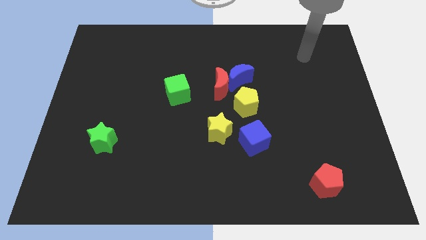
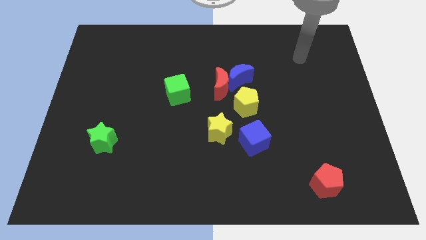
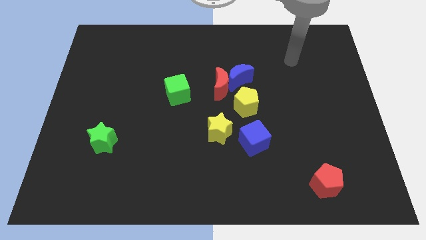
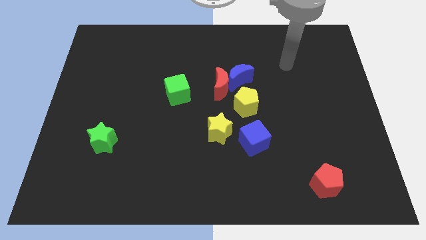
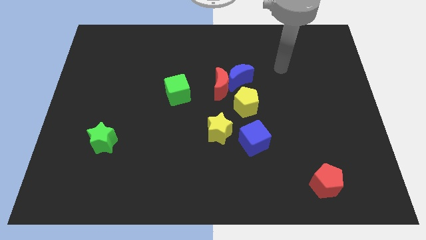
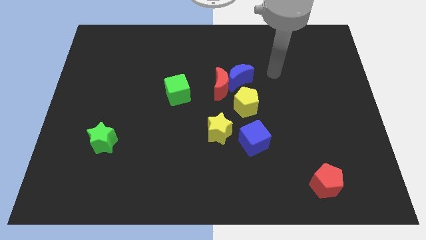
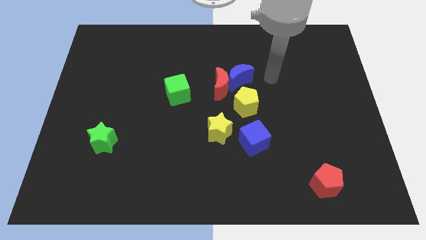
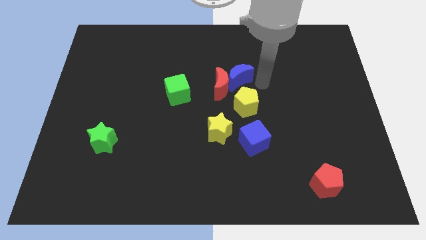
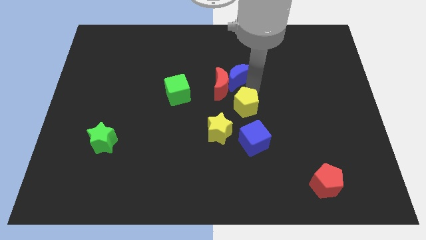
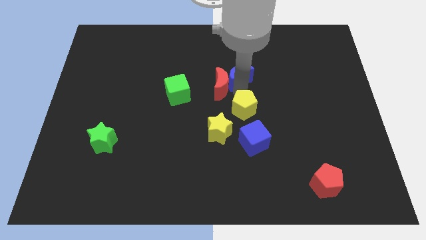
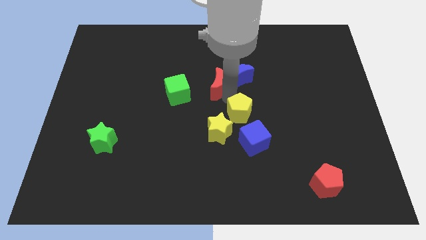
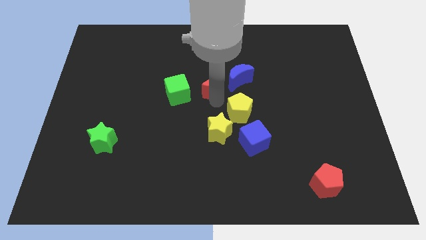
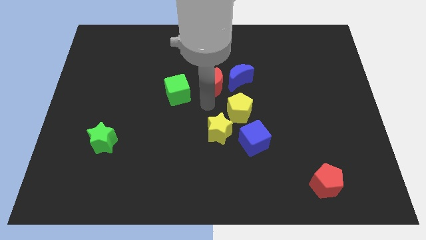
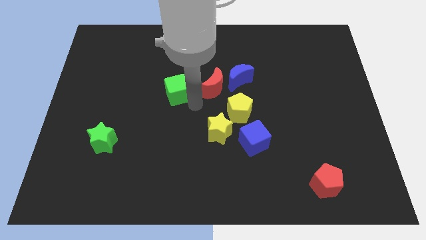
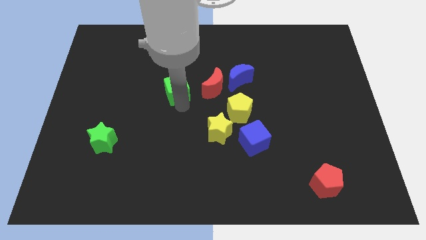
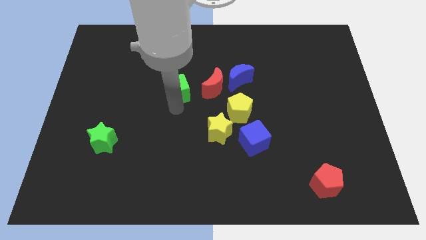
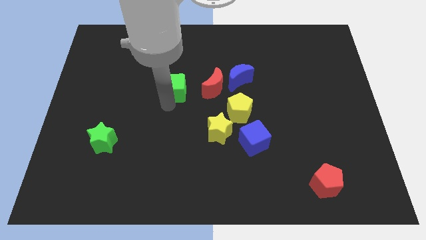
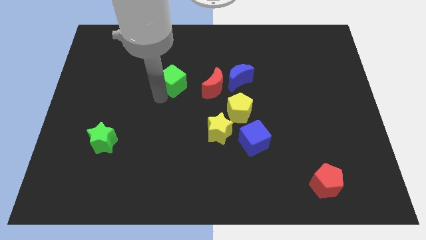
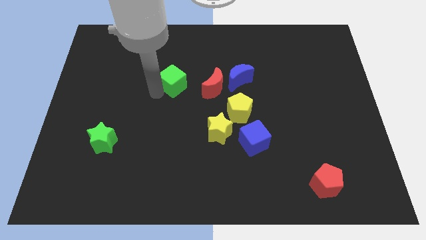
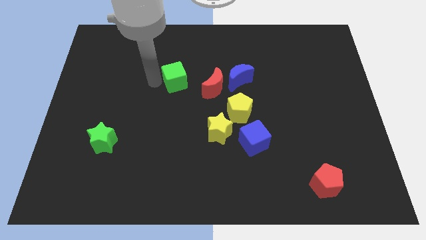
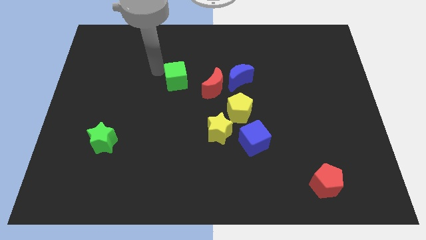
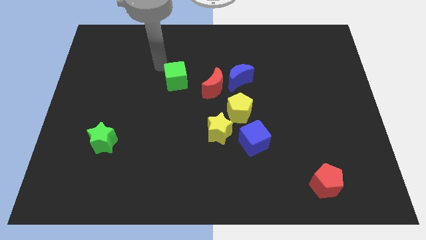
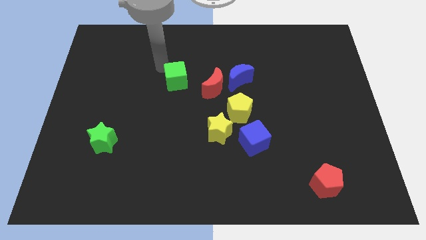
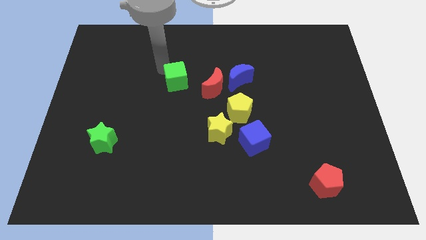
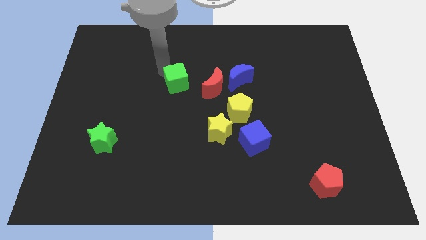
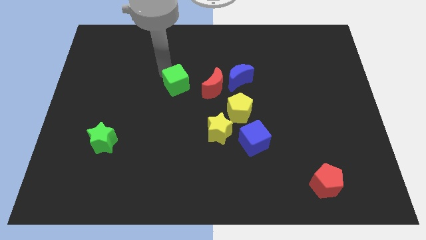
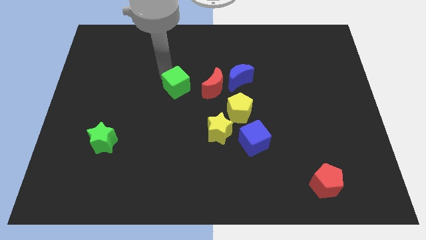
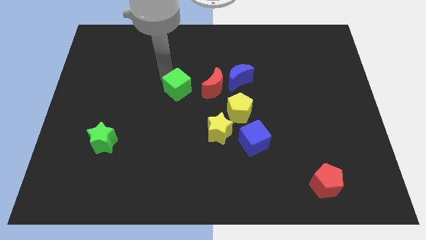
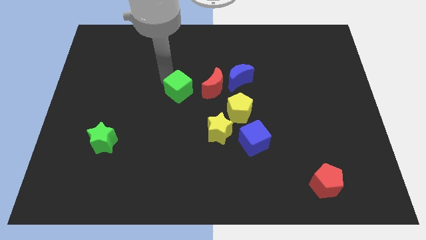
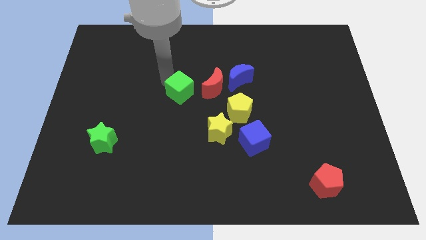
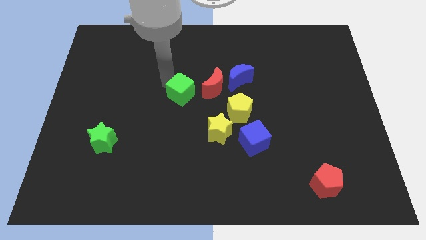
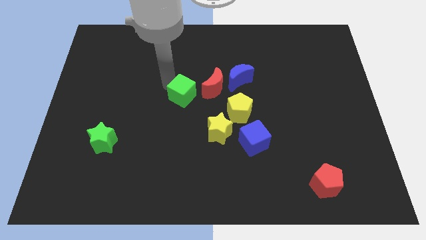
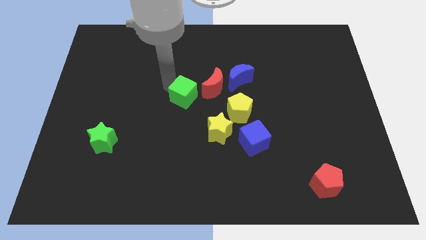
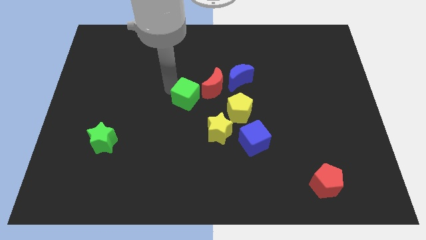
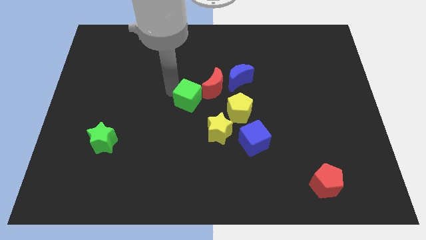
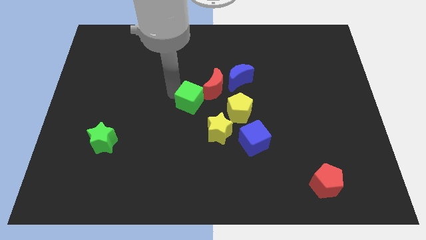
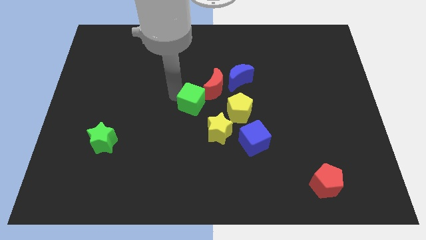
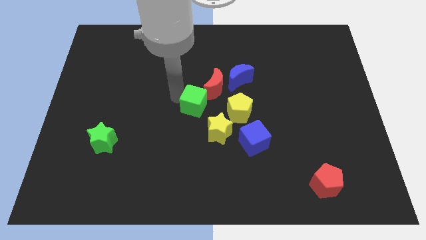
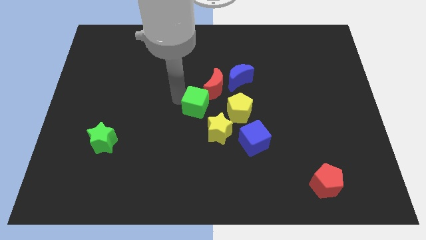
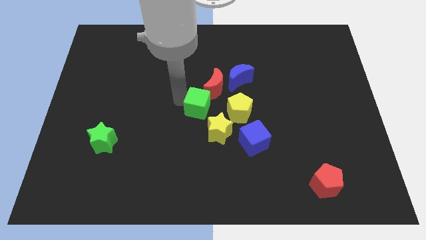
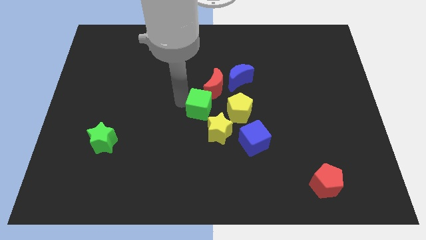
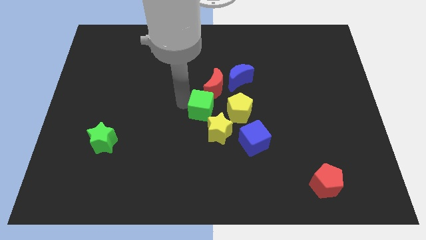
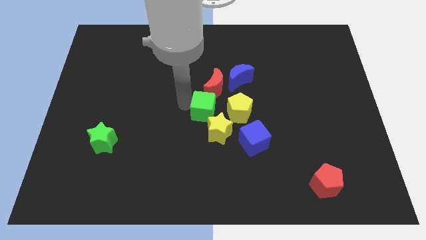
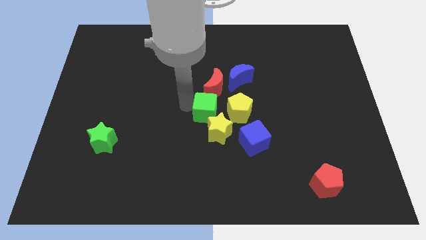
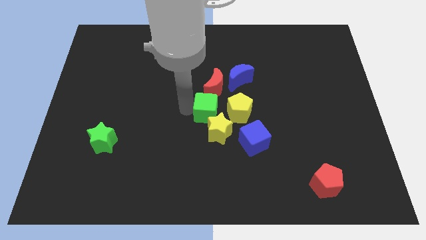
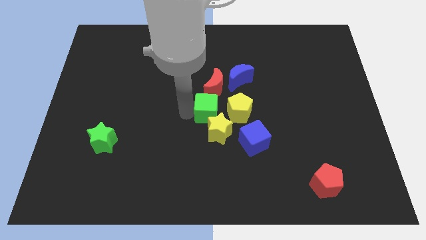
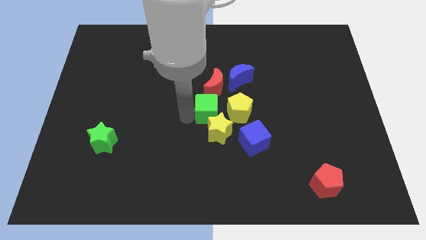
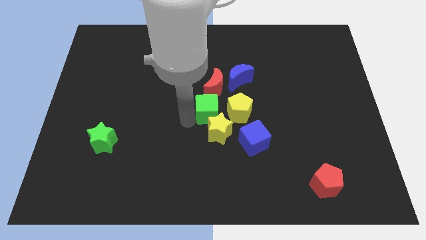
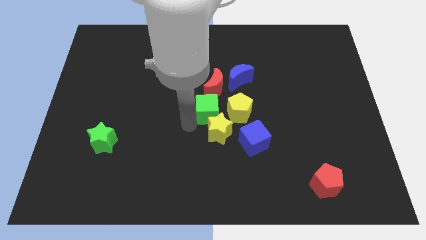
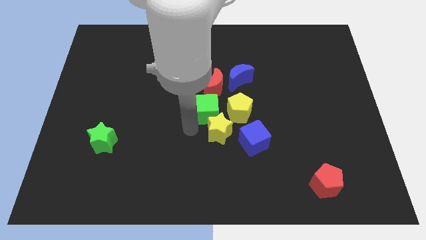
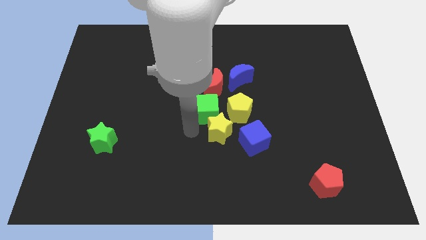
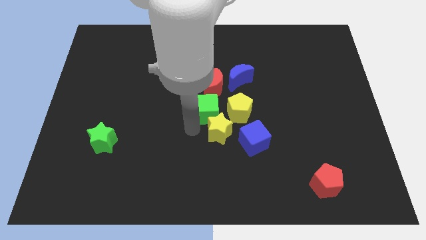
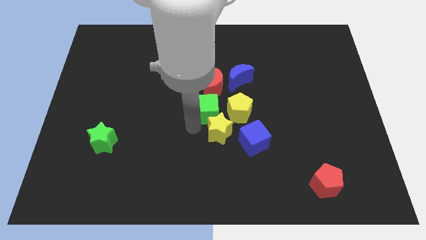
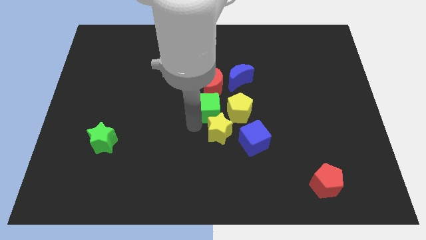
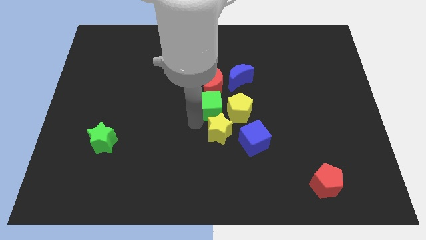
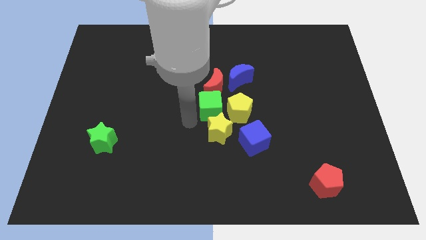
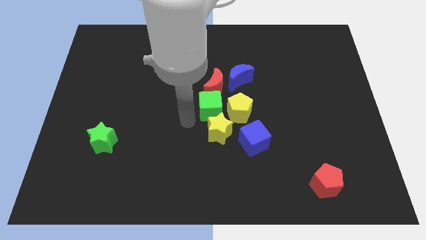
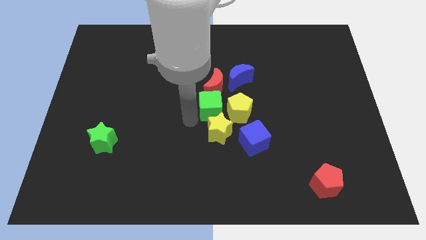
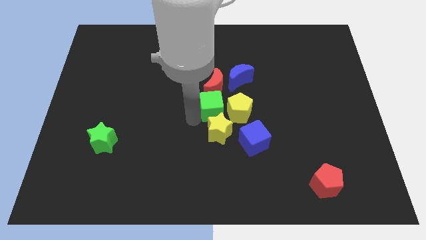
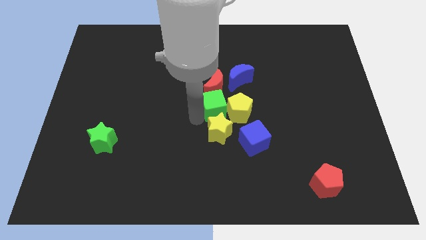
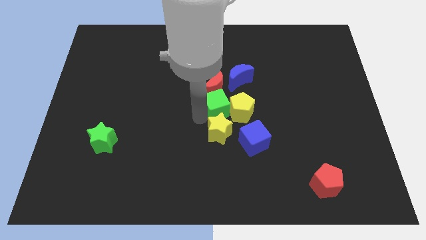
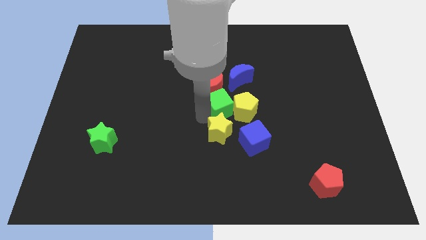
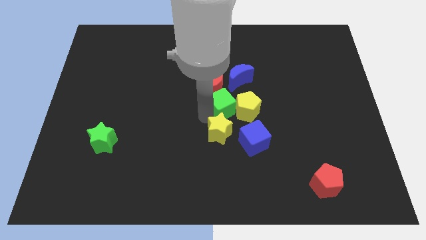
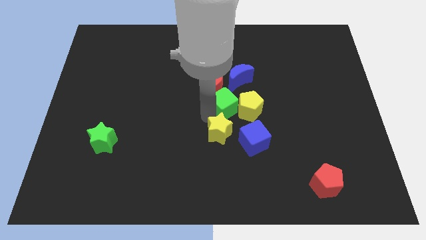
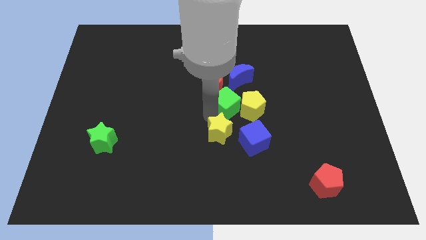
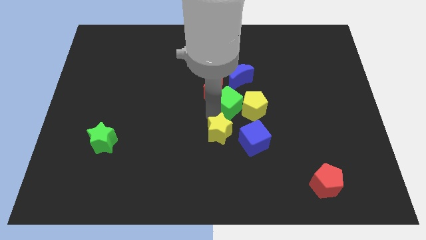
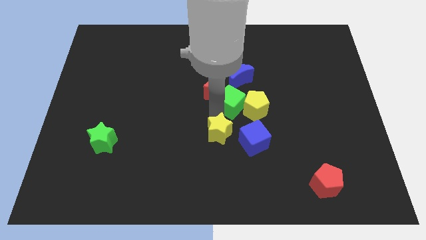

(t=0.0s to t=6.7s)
move the green cube to the top of the blue cube

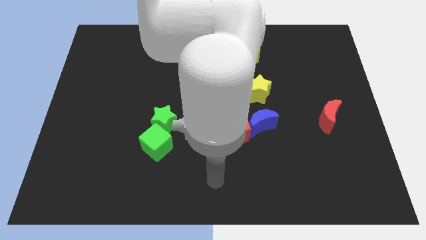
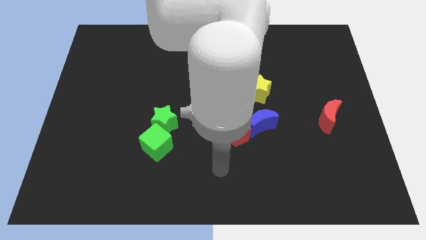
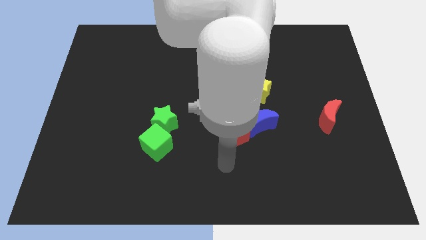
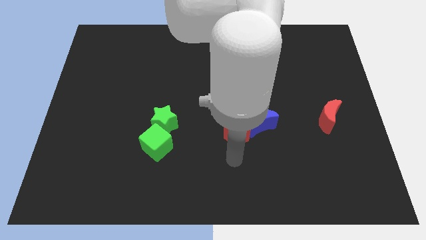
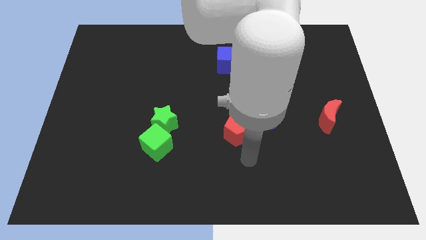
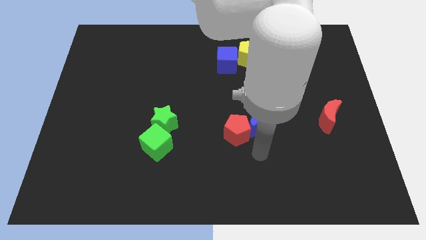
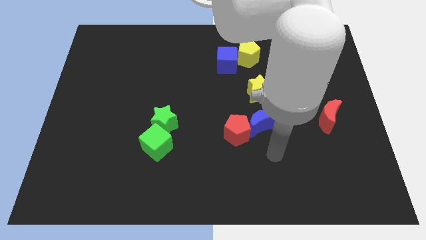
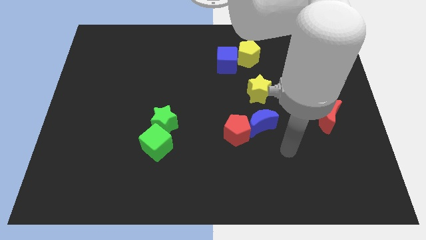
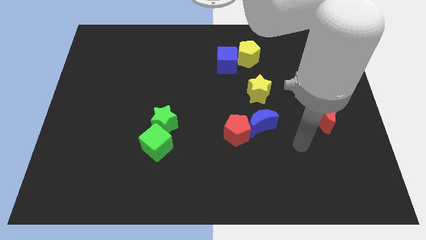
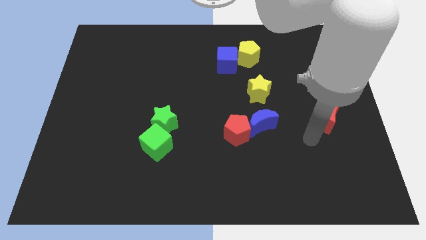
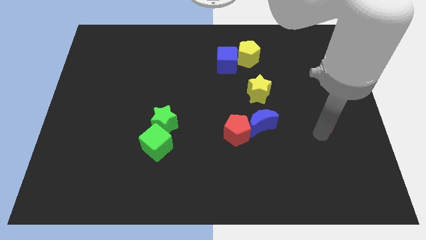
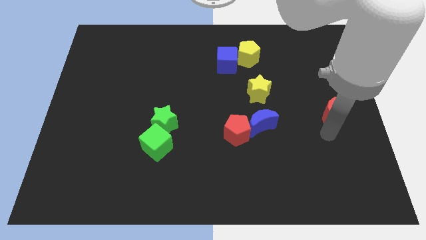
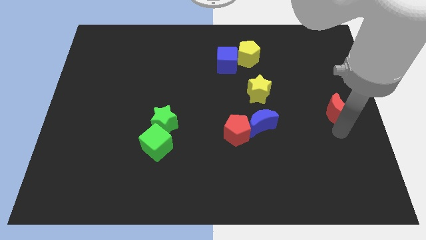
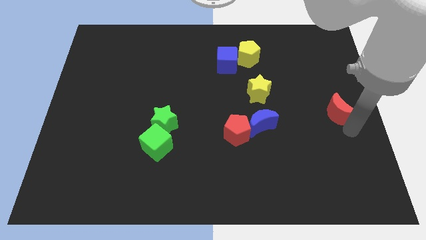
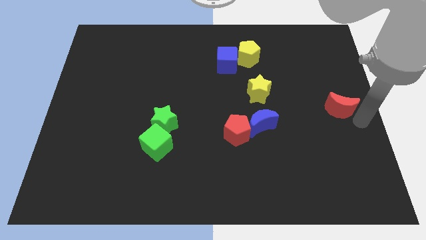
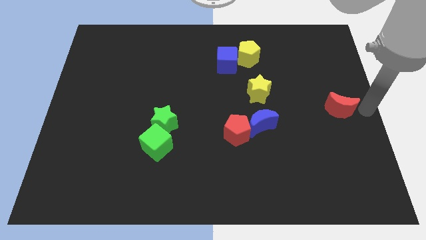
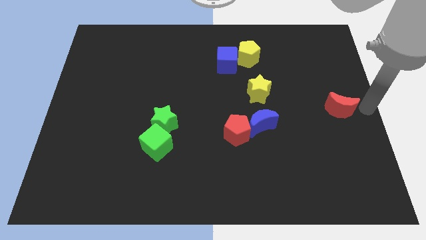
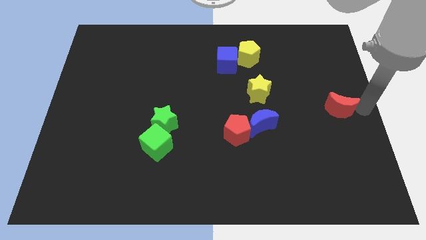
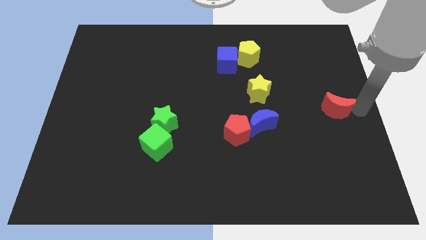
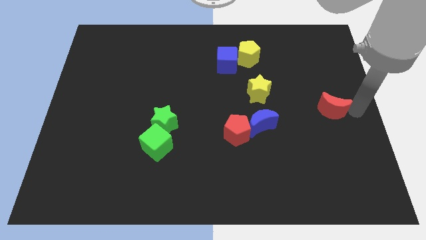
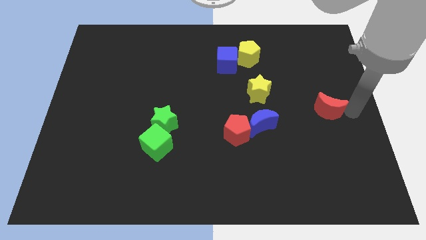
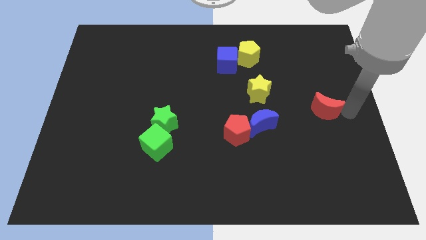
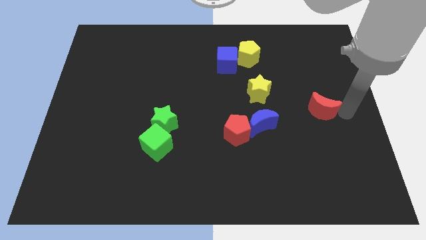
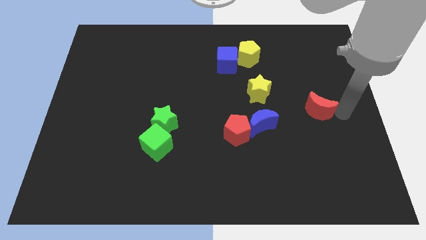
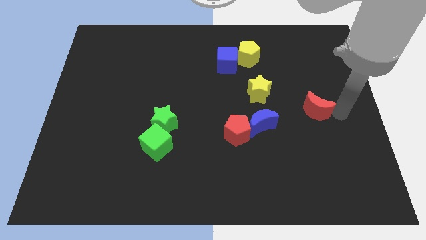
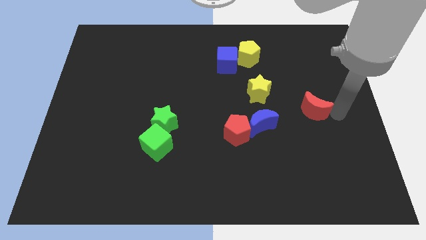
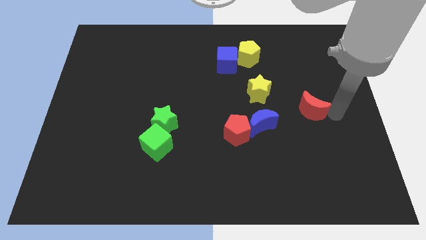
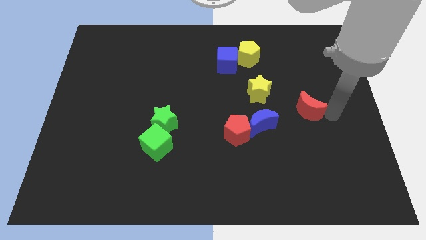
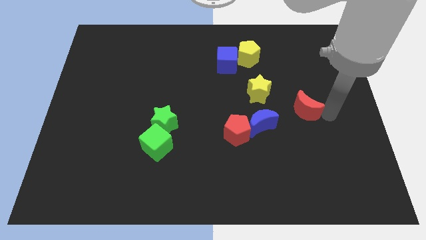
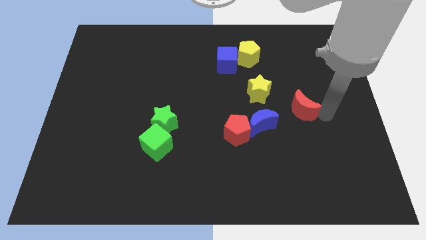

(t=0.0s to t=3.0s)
push the red moon diagonally up and to the right of the blue moon
